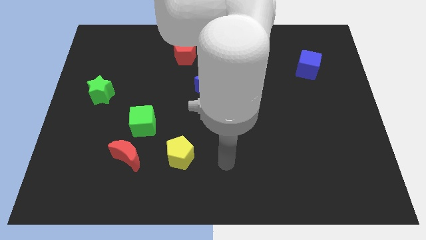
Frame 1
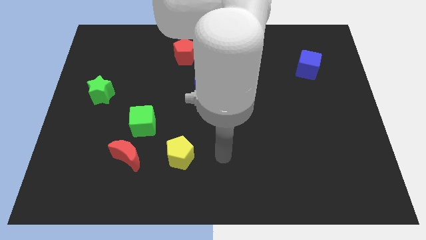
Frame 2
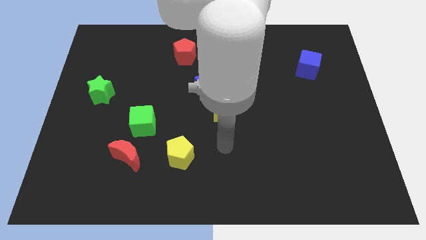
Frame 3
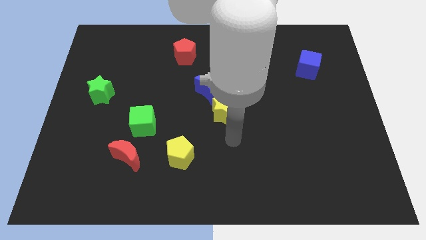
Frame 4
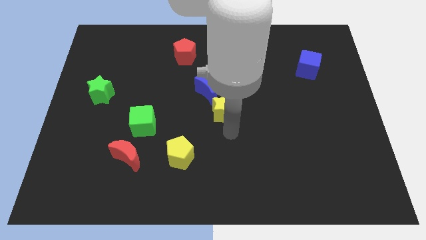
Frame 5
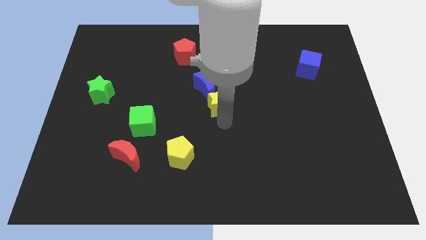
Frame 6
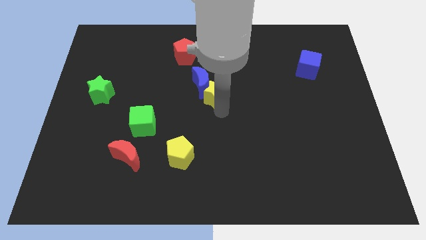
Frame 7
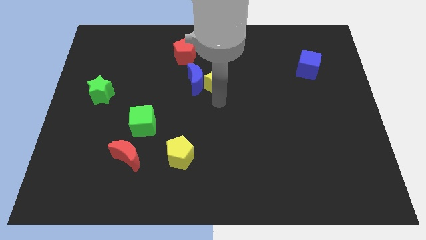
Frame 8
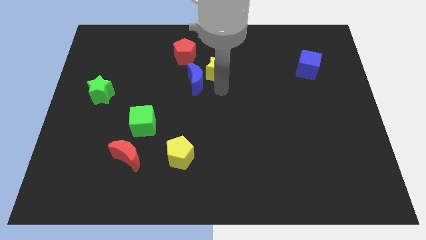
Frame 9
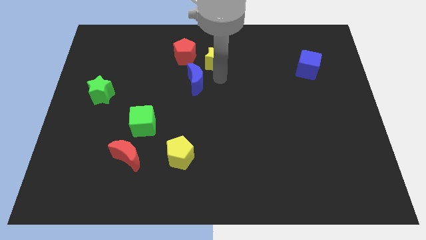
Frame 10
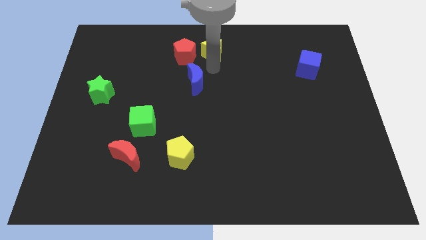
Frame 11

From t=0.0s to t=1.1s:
separate the blue moon from the yellow star

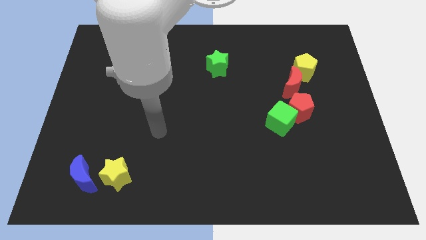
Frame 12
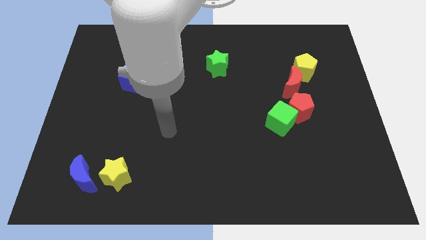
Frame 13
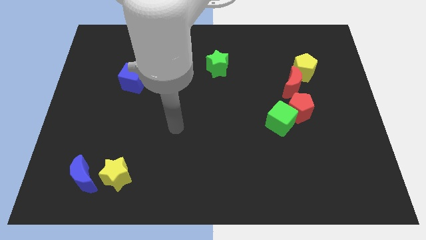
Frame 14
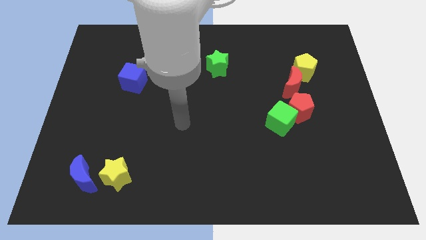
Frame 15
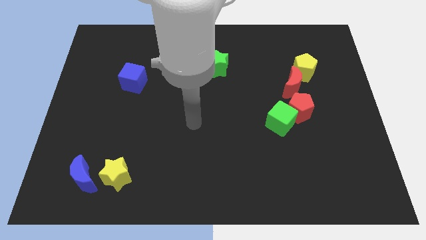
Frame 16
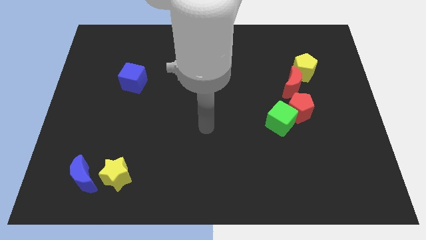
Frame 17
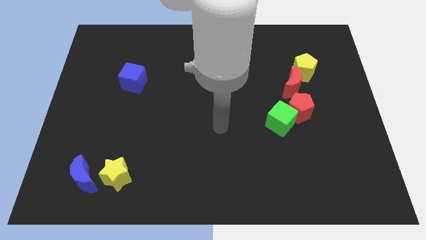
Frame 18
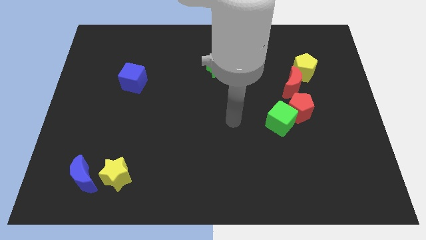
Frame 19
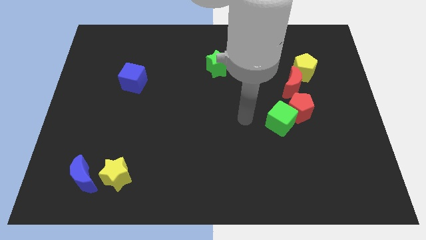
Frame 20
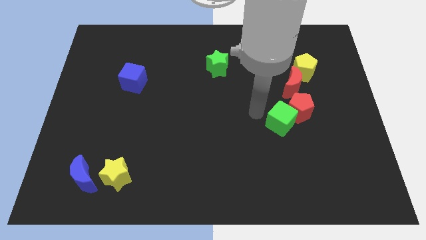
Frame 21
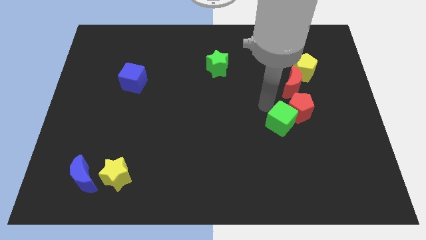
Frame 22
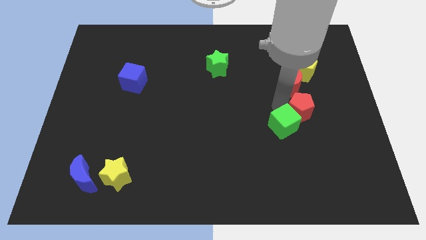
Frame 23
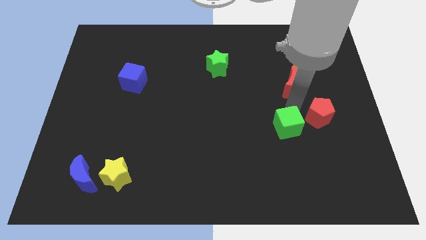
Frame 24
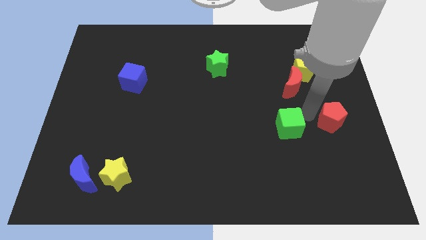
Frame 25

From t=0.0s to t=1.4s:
separate the green cube from the red pentagon

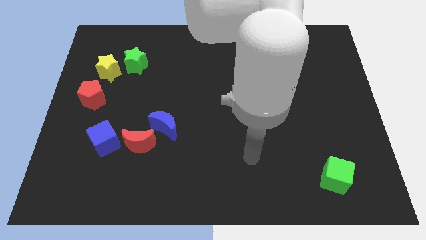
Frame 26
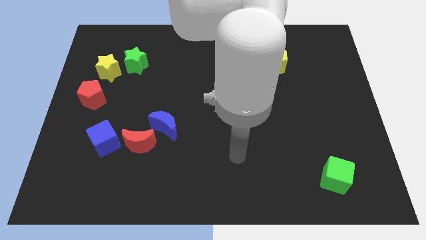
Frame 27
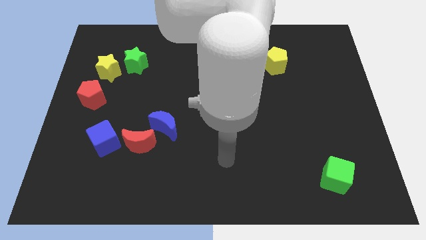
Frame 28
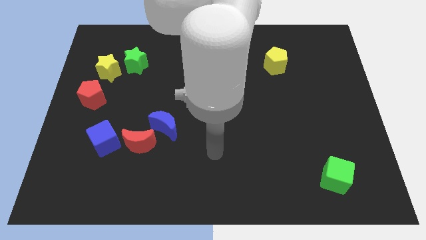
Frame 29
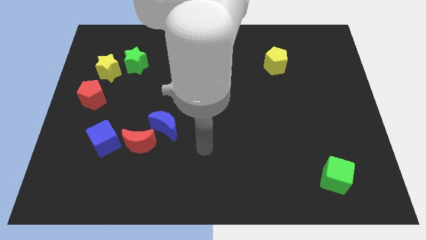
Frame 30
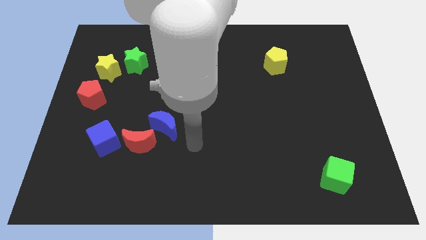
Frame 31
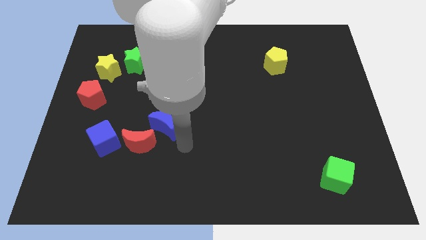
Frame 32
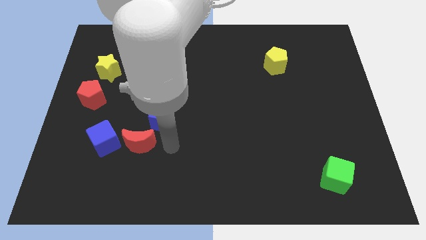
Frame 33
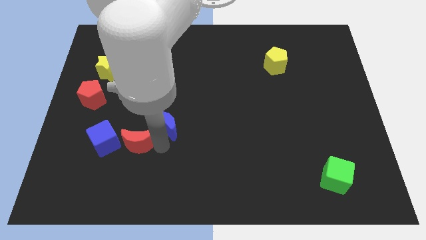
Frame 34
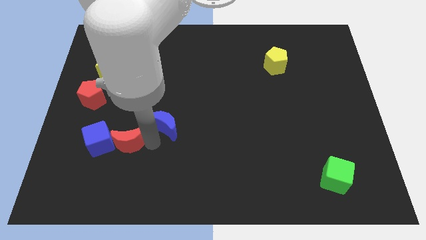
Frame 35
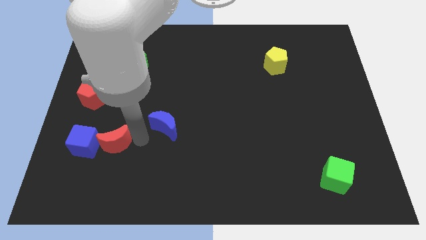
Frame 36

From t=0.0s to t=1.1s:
pull the blue moon apart from the red moon

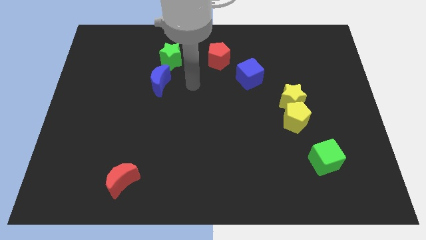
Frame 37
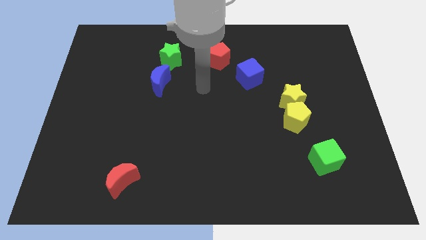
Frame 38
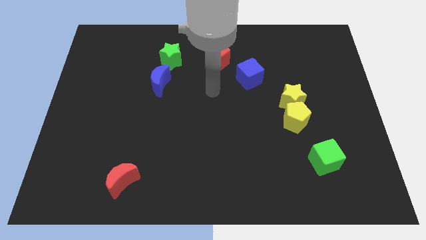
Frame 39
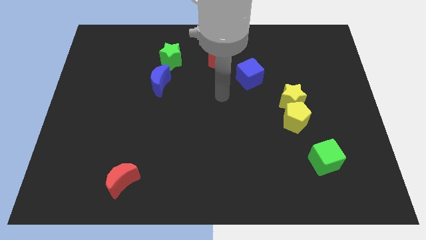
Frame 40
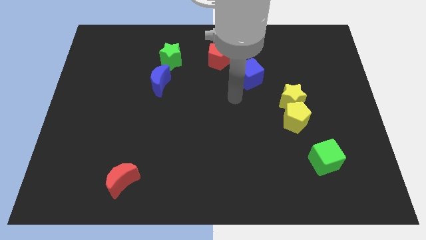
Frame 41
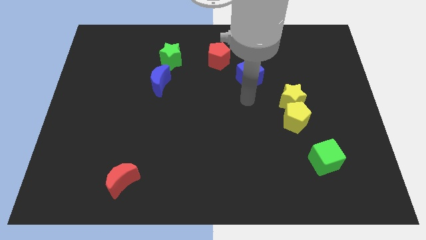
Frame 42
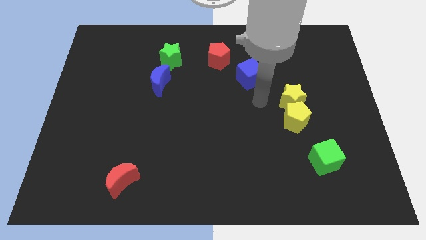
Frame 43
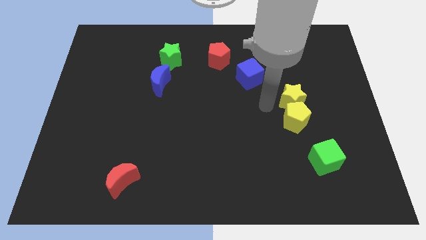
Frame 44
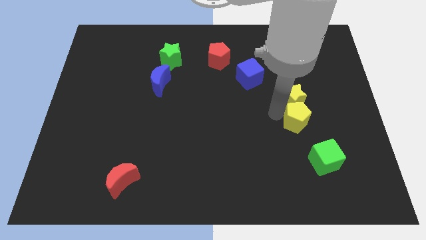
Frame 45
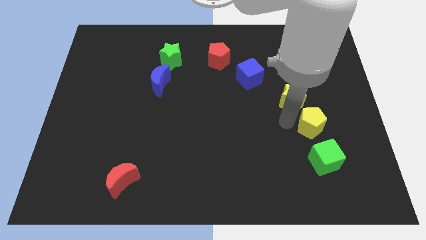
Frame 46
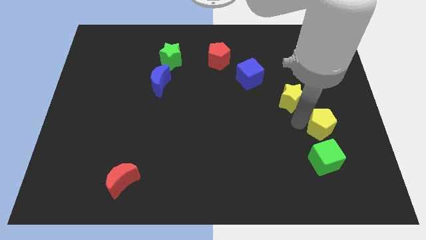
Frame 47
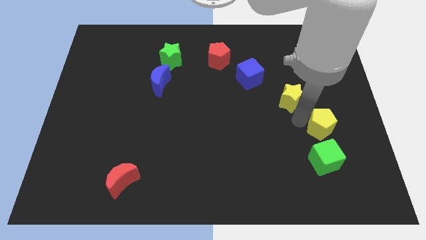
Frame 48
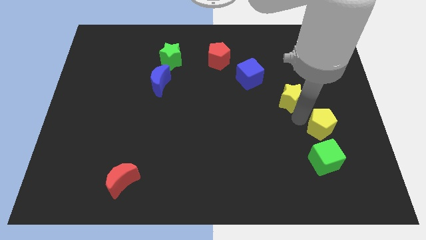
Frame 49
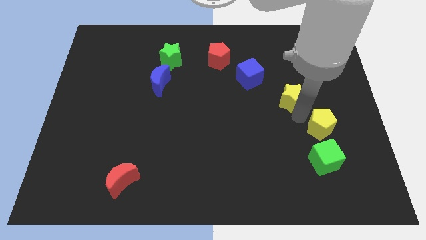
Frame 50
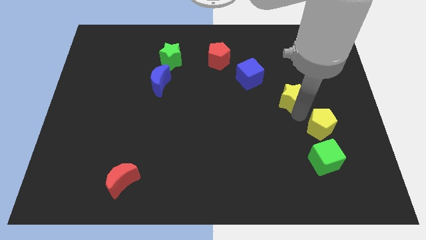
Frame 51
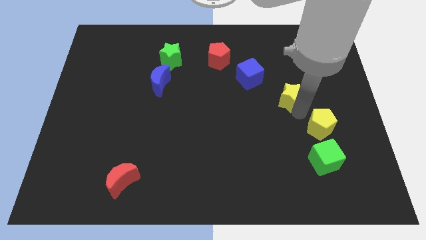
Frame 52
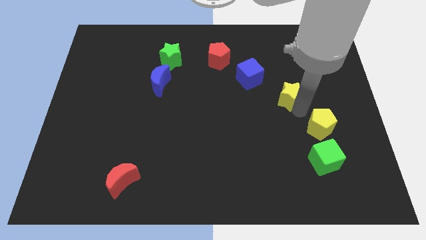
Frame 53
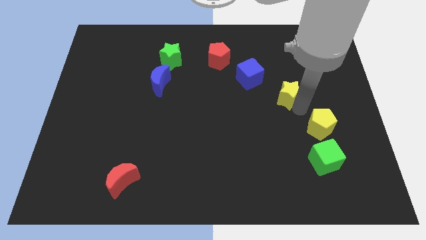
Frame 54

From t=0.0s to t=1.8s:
separate the yellow star from the yellow pentagon

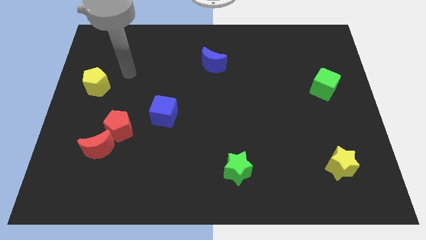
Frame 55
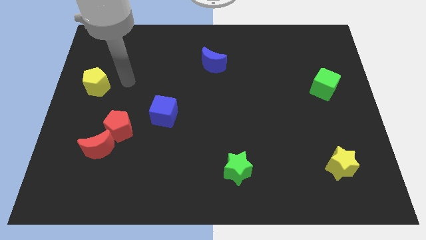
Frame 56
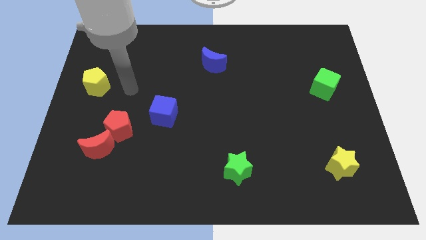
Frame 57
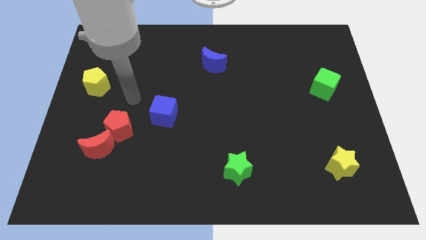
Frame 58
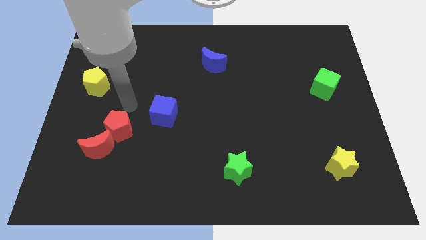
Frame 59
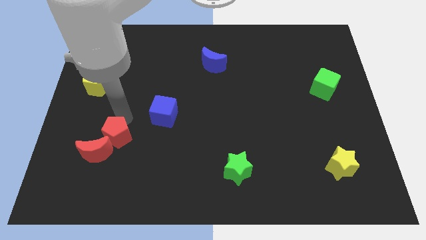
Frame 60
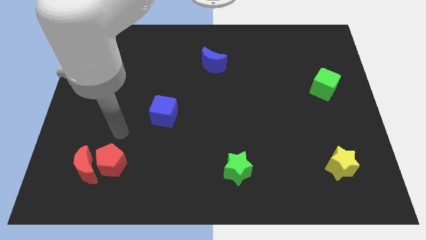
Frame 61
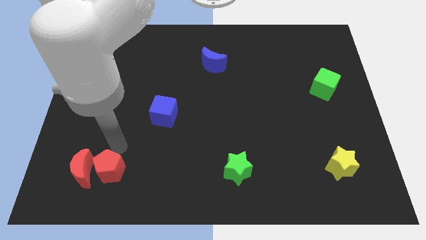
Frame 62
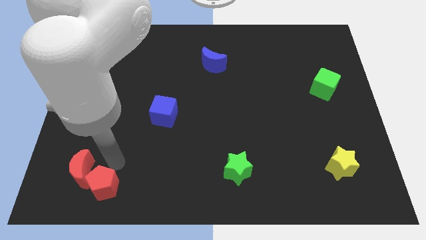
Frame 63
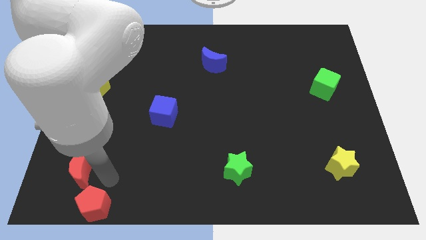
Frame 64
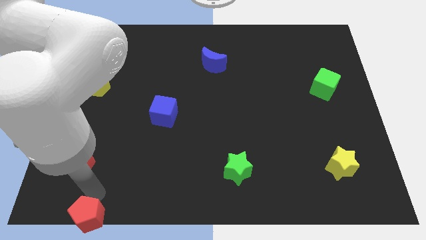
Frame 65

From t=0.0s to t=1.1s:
move the red moon away from the red pentagon

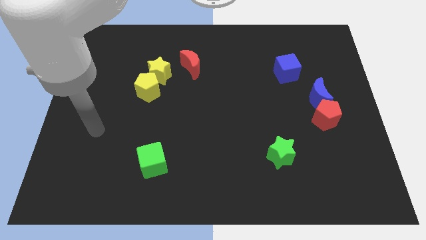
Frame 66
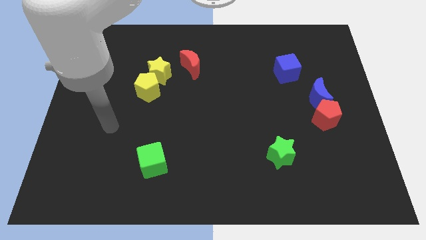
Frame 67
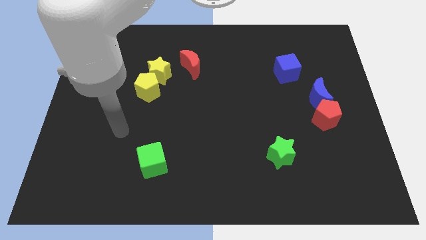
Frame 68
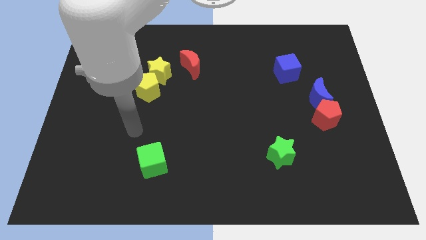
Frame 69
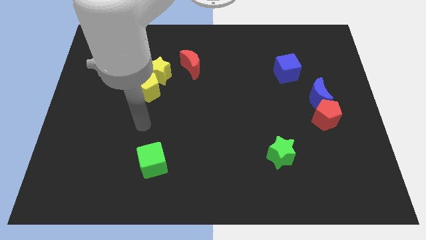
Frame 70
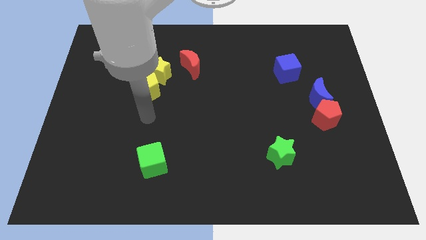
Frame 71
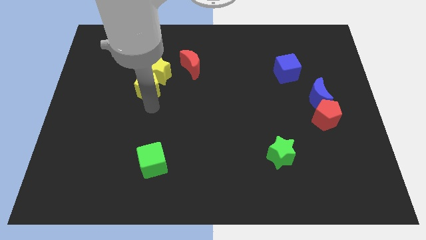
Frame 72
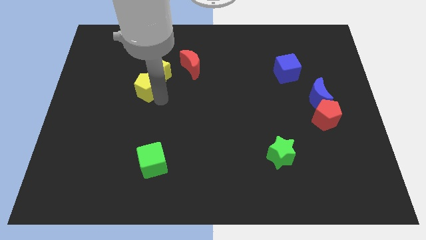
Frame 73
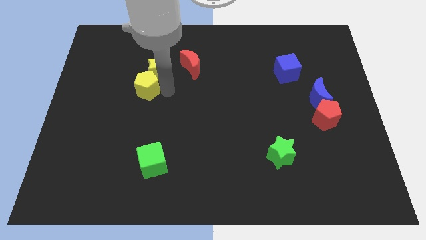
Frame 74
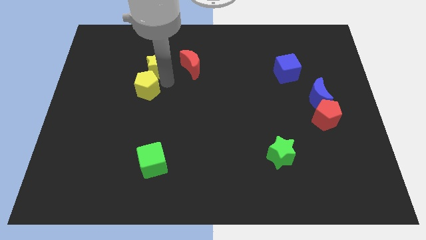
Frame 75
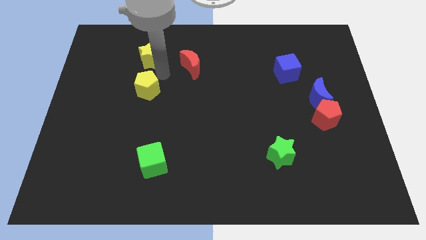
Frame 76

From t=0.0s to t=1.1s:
pull the yellow pentagon apart from the yellow star

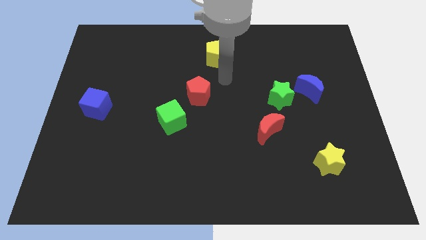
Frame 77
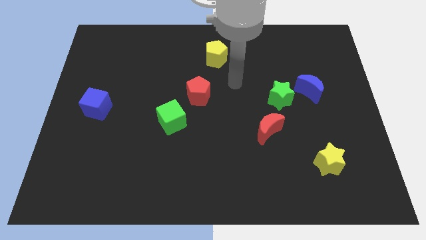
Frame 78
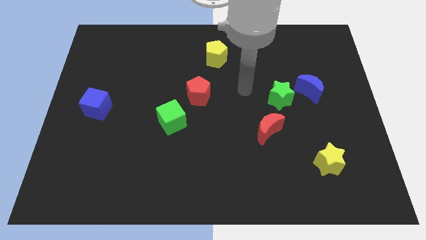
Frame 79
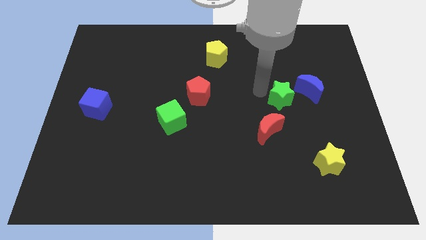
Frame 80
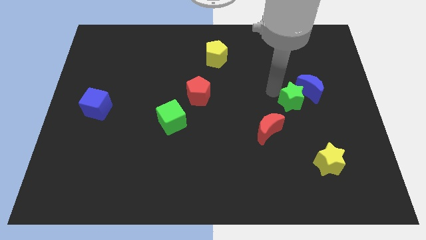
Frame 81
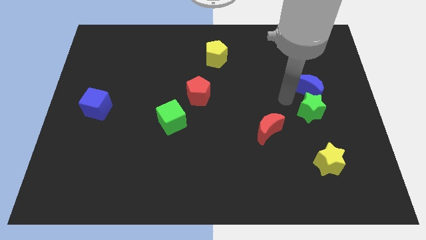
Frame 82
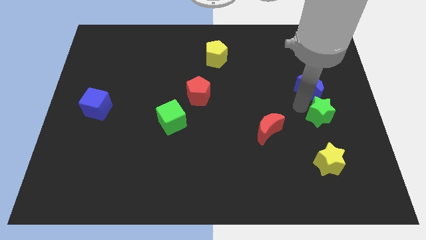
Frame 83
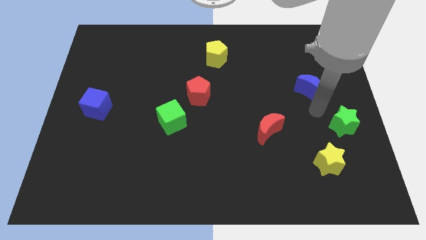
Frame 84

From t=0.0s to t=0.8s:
pull the blue moon apart from the green star

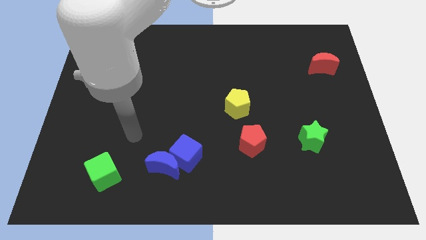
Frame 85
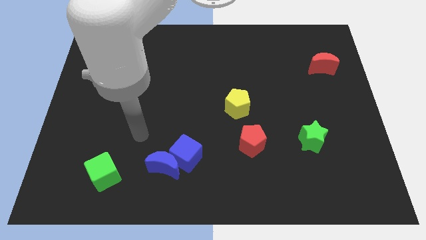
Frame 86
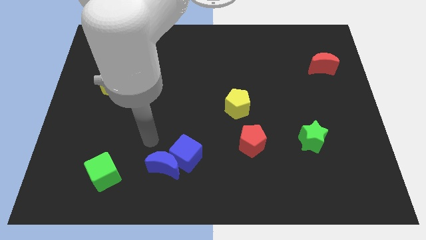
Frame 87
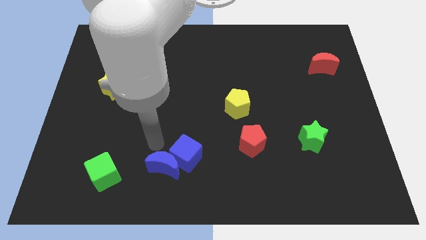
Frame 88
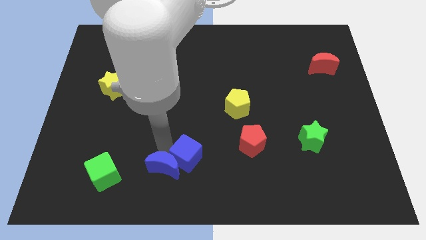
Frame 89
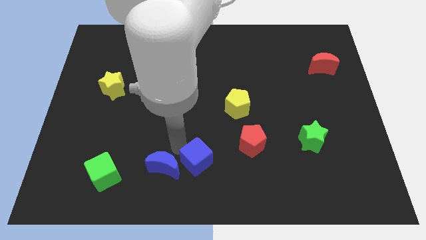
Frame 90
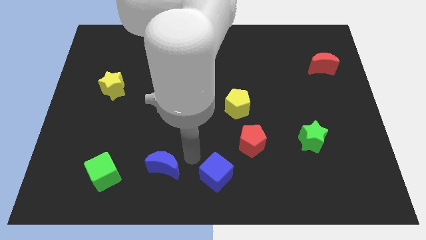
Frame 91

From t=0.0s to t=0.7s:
separate the blue moon from the blue cube

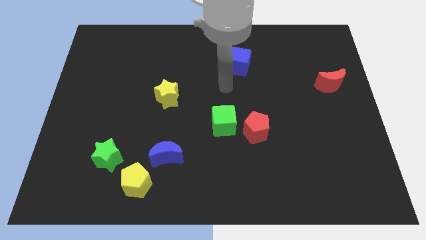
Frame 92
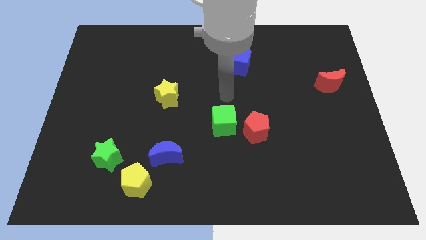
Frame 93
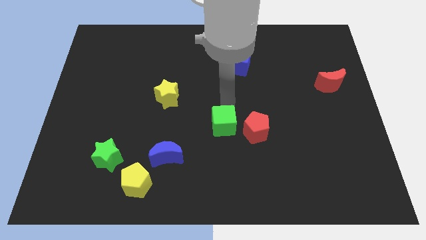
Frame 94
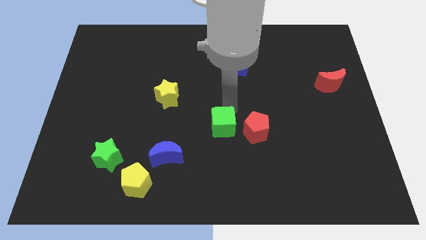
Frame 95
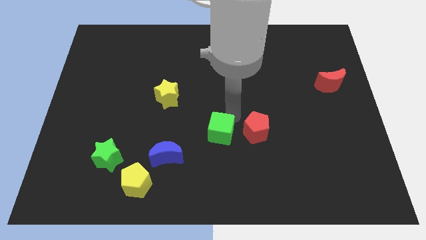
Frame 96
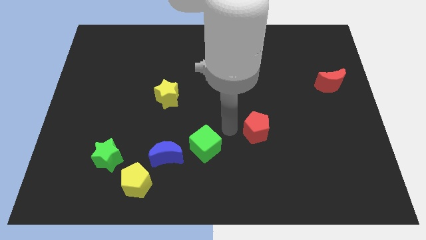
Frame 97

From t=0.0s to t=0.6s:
pull the red pentagon apart from the green cube
